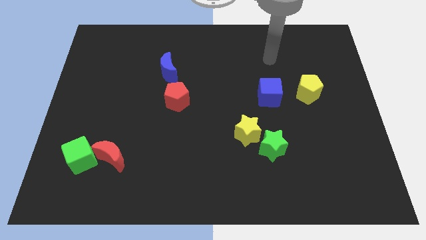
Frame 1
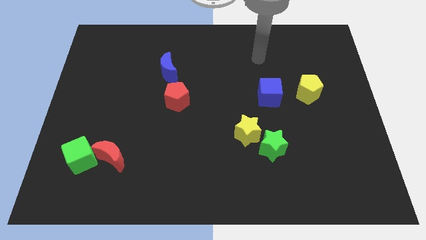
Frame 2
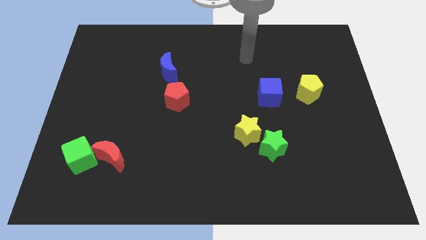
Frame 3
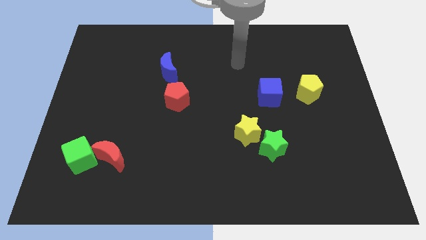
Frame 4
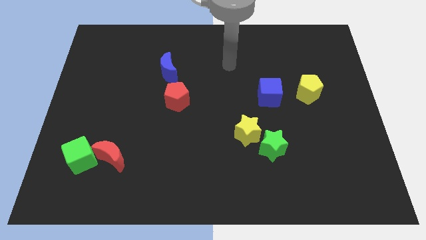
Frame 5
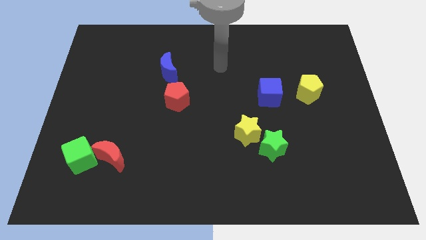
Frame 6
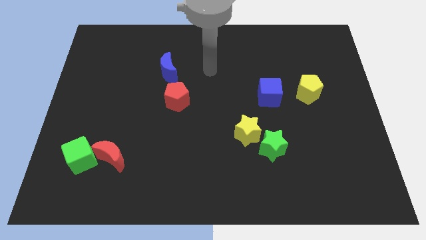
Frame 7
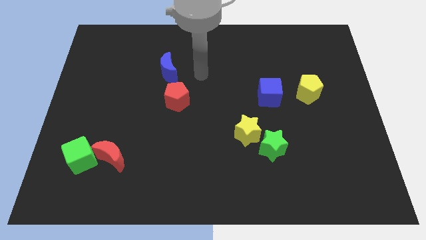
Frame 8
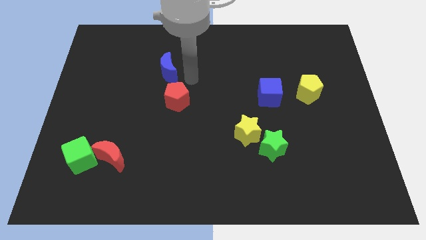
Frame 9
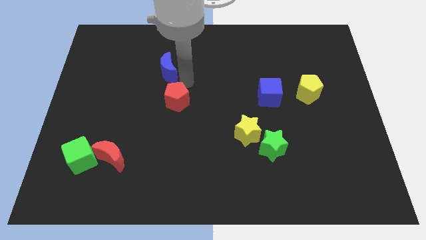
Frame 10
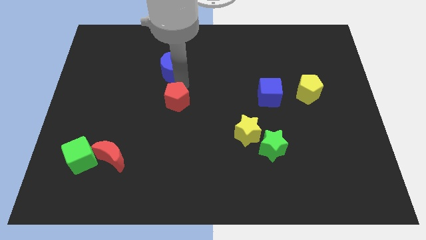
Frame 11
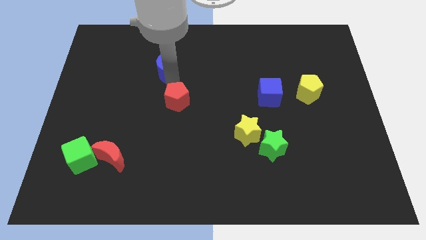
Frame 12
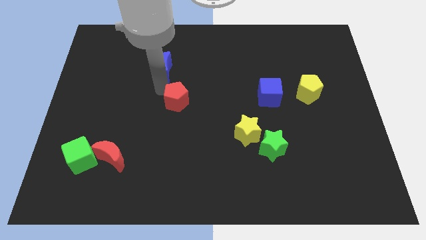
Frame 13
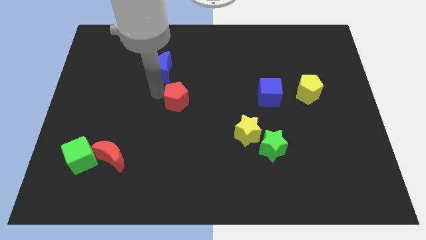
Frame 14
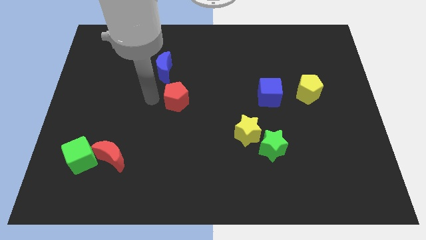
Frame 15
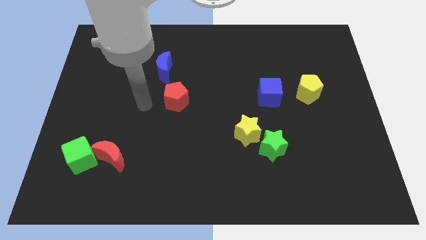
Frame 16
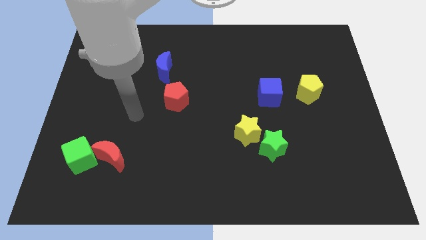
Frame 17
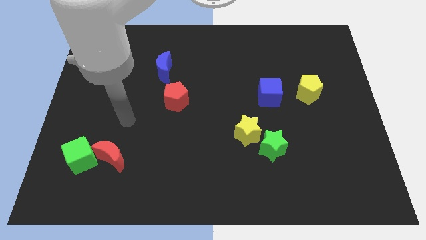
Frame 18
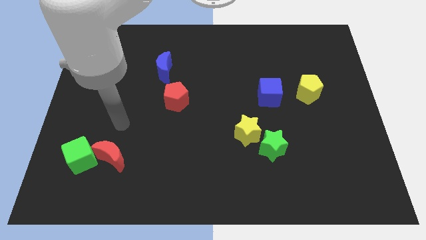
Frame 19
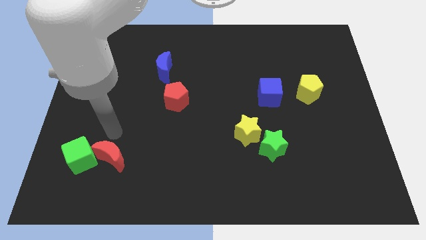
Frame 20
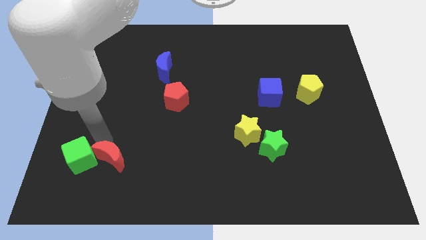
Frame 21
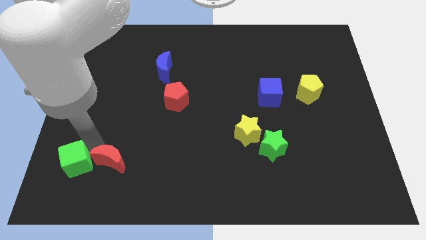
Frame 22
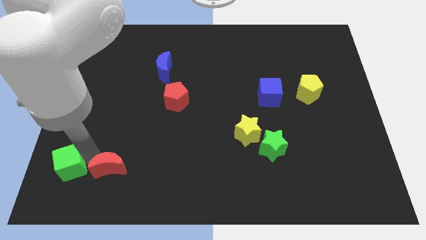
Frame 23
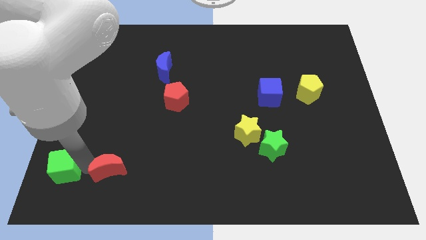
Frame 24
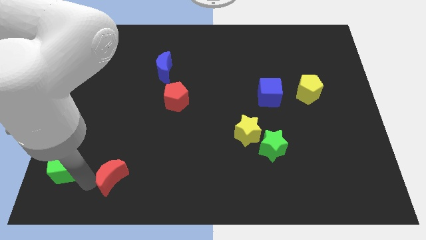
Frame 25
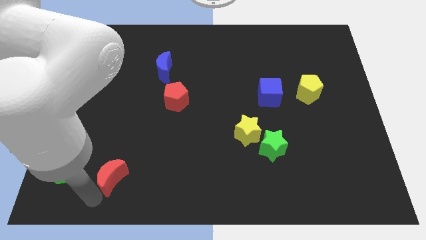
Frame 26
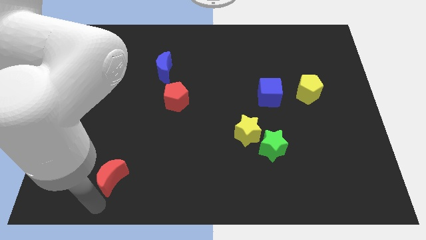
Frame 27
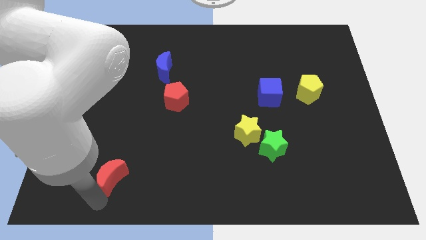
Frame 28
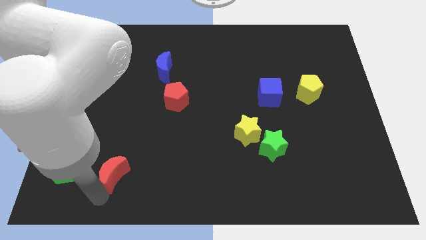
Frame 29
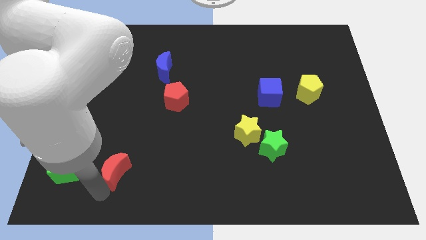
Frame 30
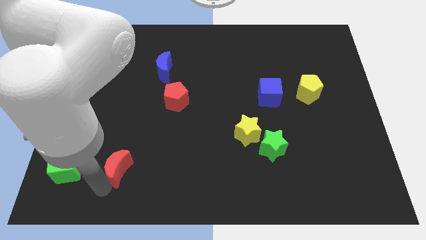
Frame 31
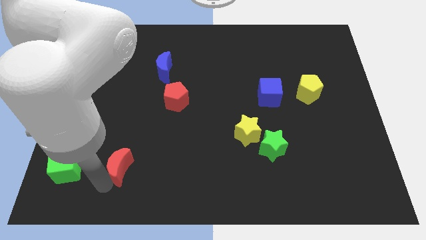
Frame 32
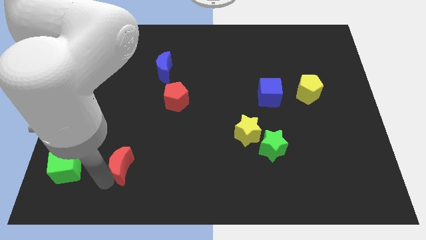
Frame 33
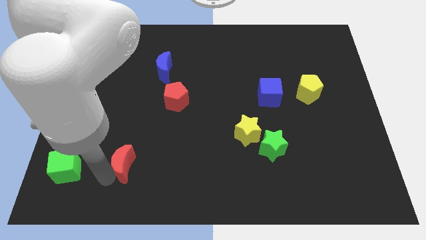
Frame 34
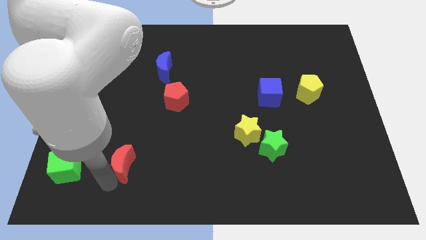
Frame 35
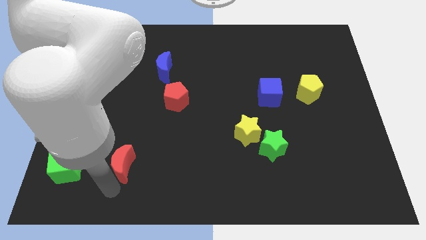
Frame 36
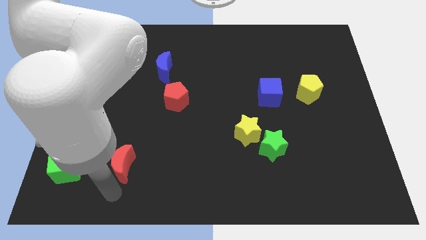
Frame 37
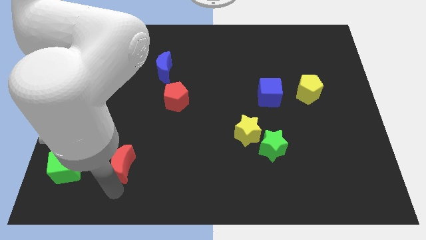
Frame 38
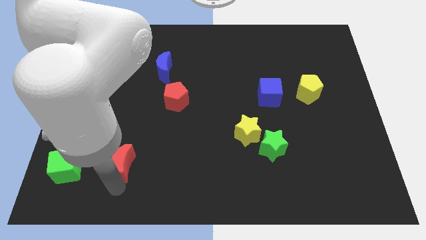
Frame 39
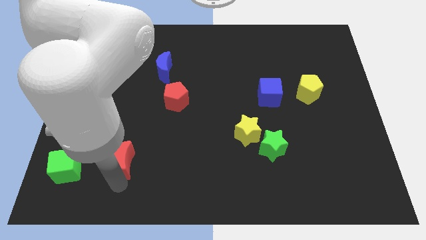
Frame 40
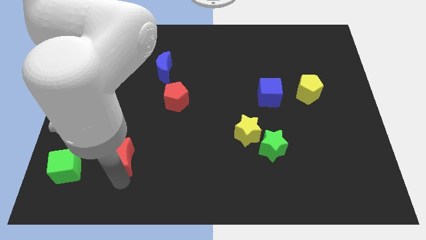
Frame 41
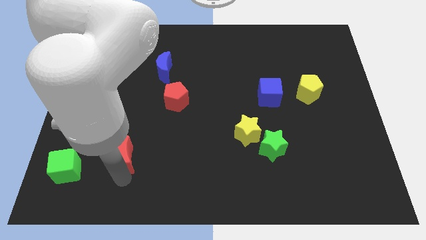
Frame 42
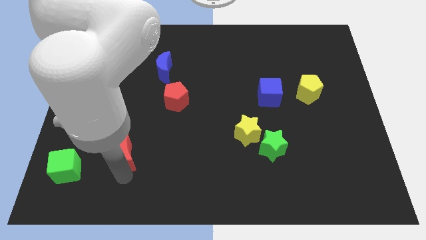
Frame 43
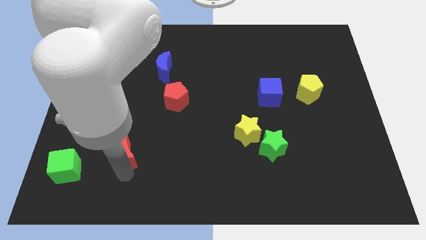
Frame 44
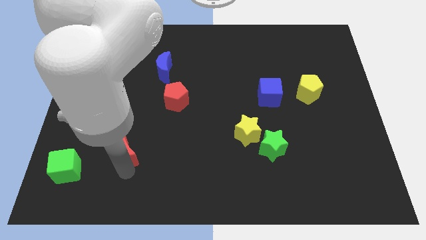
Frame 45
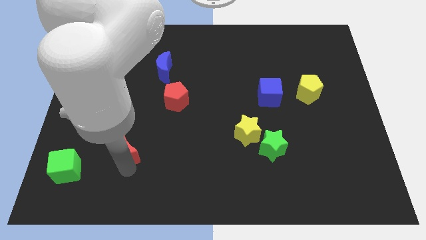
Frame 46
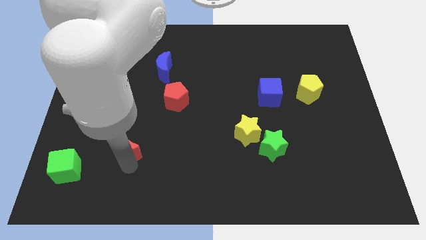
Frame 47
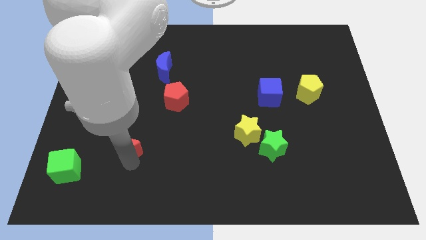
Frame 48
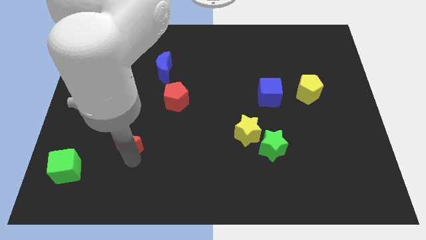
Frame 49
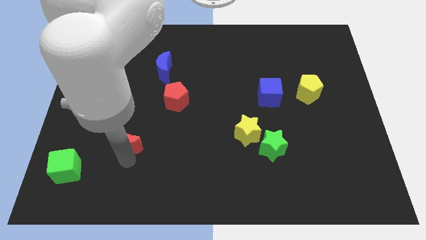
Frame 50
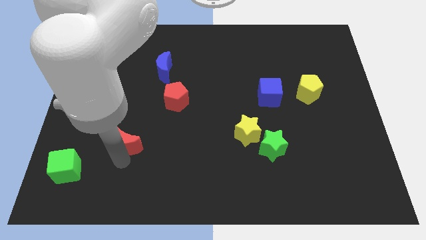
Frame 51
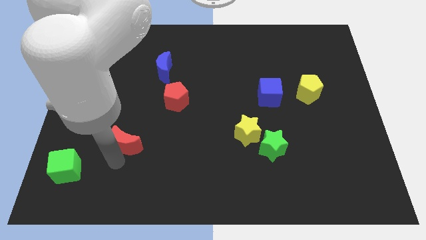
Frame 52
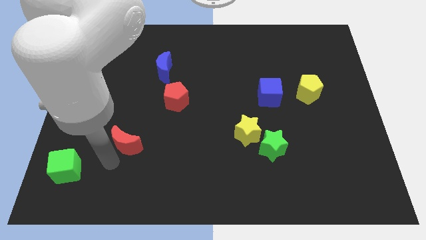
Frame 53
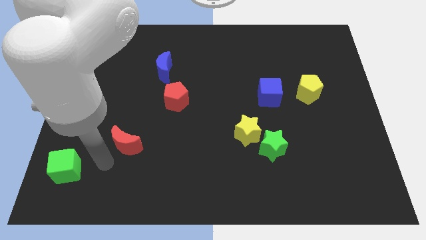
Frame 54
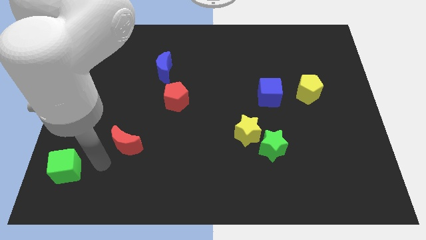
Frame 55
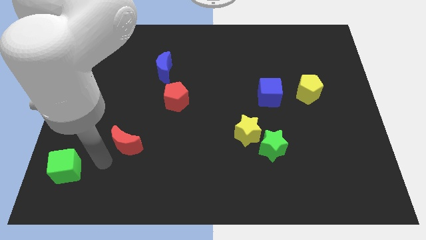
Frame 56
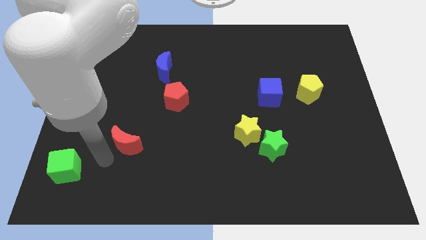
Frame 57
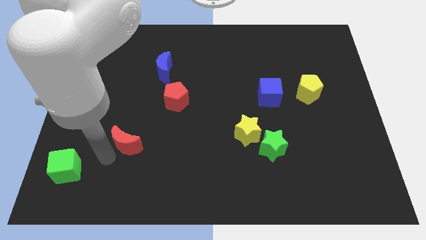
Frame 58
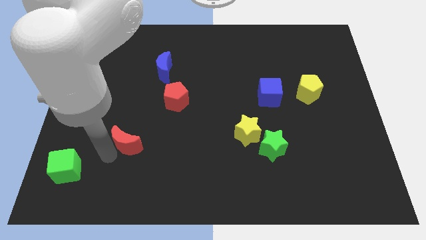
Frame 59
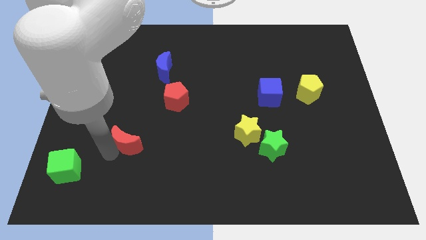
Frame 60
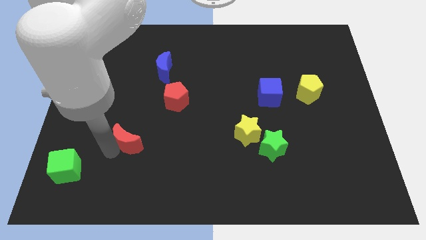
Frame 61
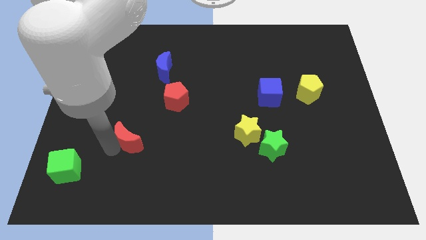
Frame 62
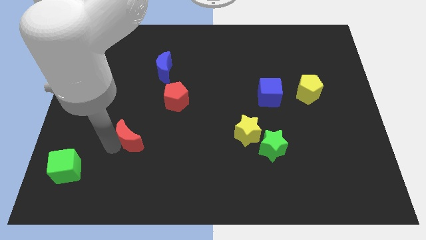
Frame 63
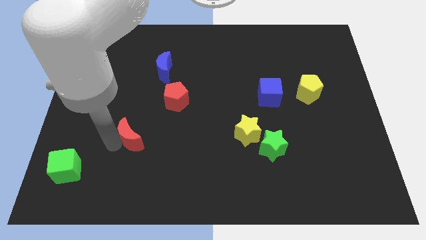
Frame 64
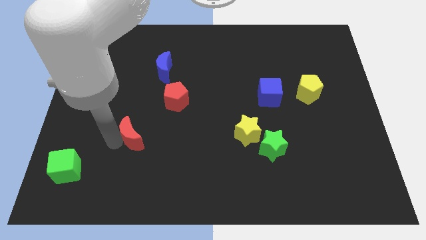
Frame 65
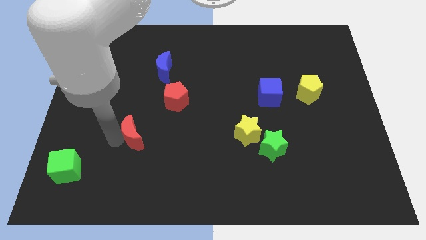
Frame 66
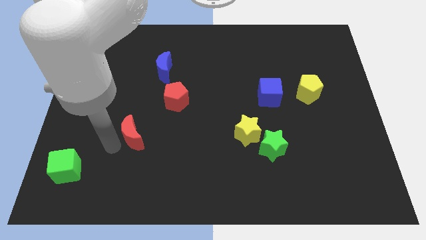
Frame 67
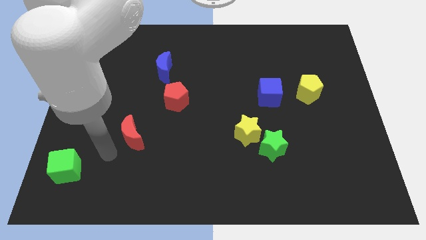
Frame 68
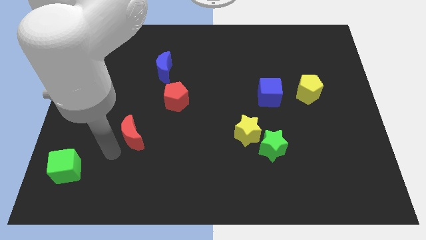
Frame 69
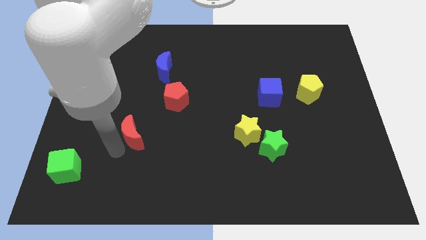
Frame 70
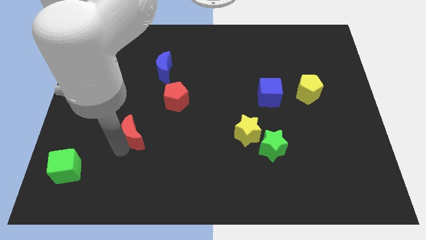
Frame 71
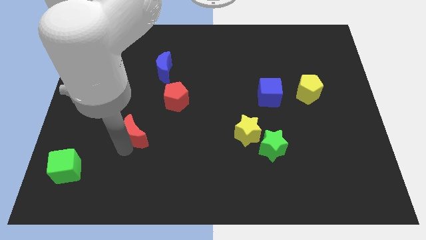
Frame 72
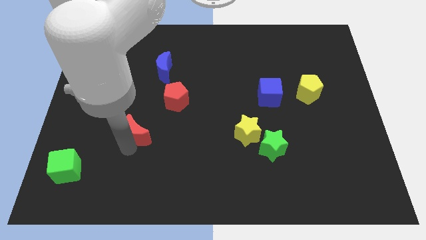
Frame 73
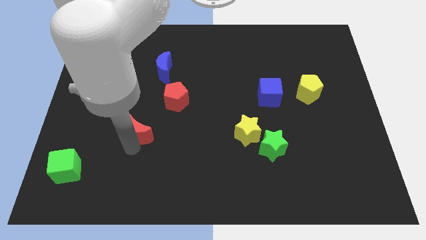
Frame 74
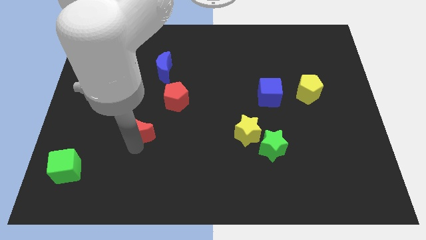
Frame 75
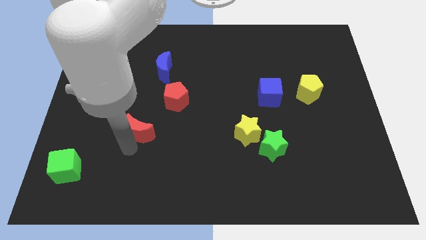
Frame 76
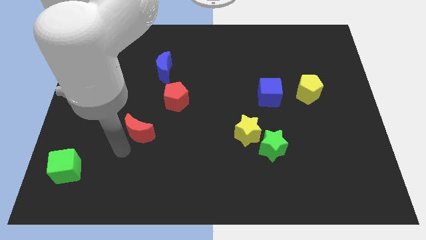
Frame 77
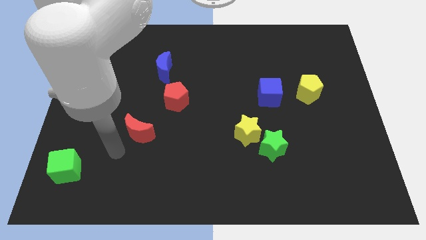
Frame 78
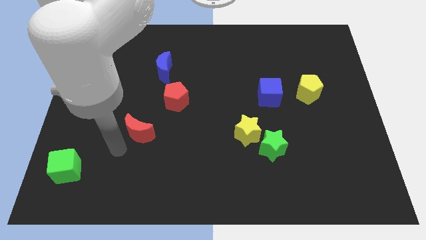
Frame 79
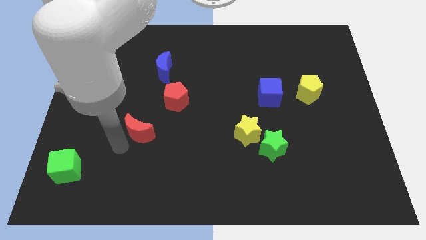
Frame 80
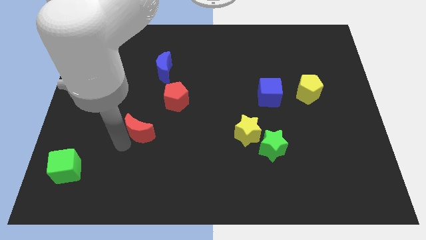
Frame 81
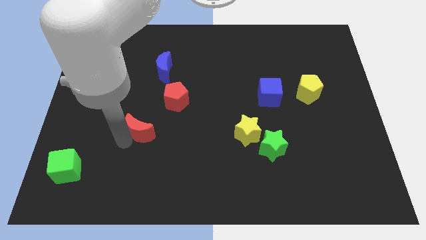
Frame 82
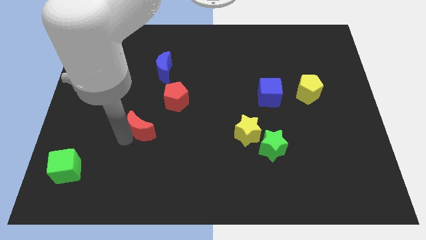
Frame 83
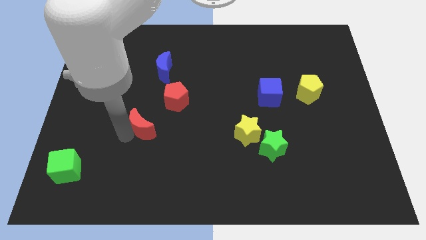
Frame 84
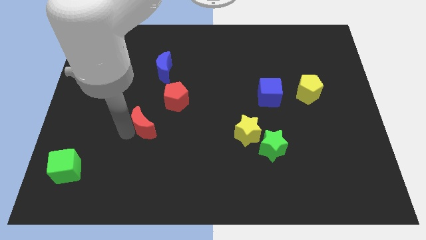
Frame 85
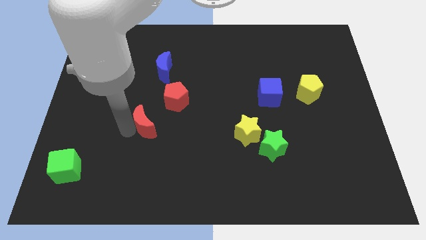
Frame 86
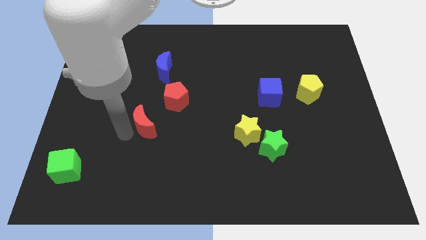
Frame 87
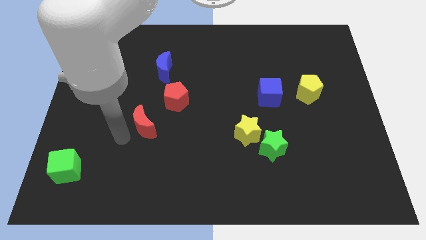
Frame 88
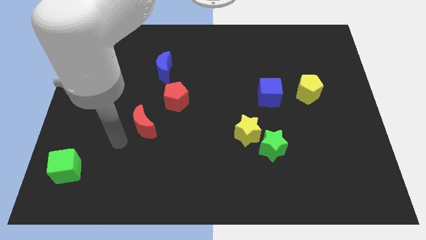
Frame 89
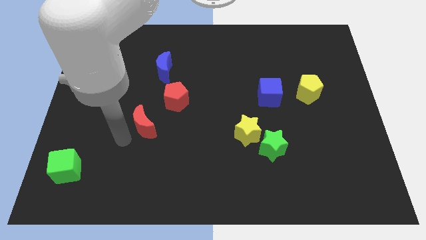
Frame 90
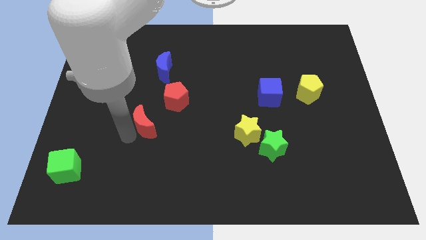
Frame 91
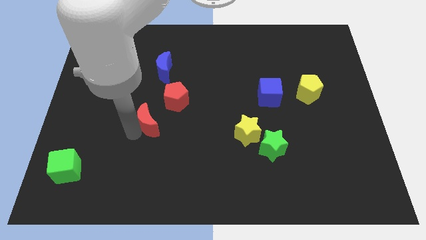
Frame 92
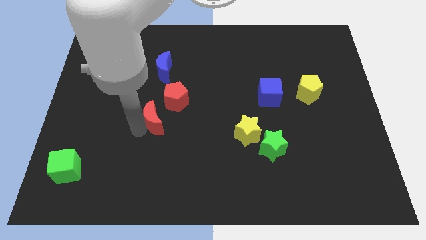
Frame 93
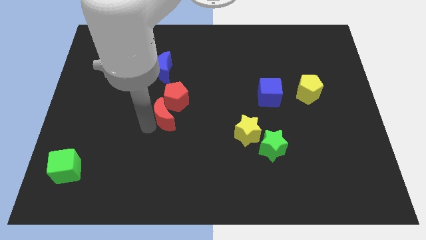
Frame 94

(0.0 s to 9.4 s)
slide the red moon to the red pentagon
